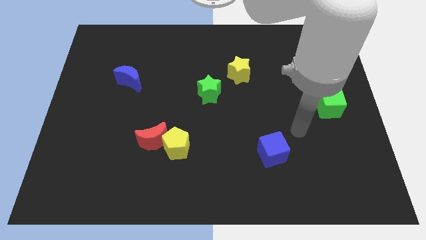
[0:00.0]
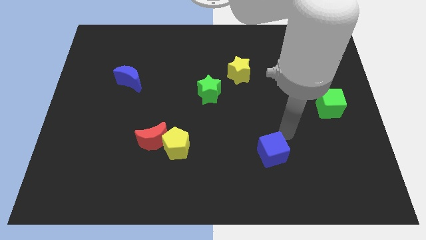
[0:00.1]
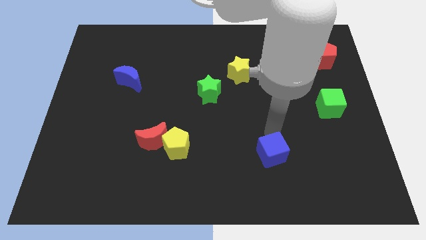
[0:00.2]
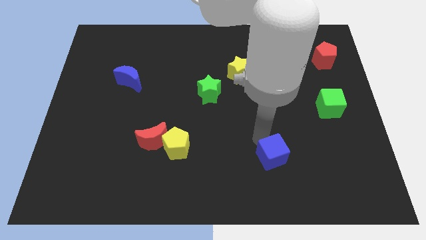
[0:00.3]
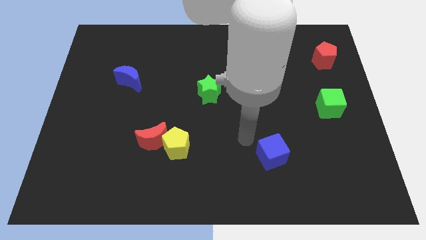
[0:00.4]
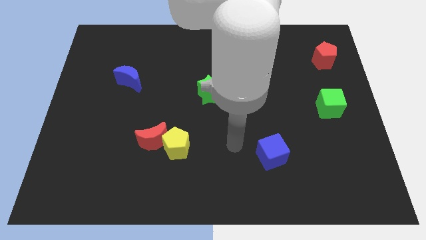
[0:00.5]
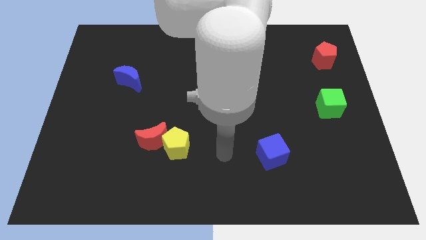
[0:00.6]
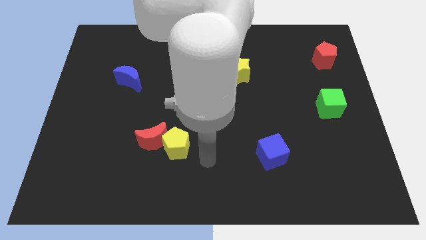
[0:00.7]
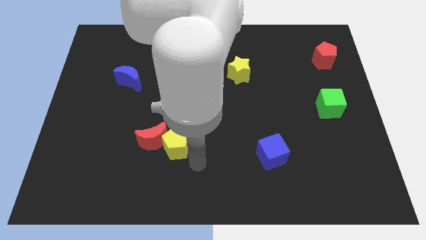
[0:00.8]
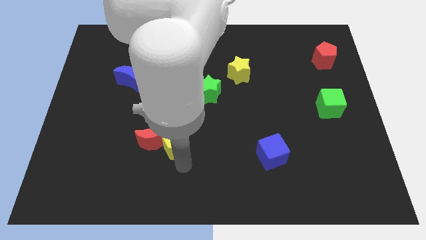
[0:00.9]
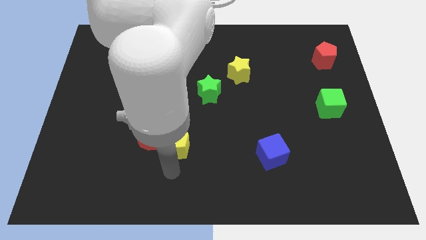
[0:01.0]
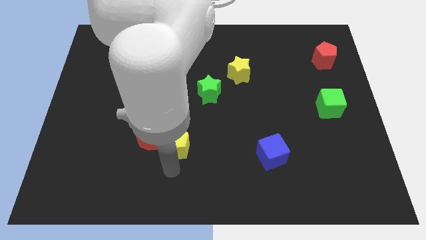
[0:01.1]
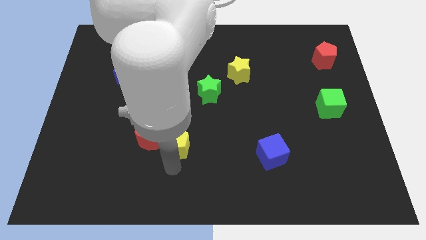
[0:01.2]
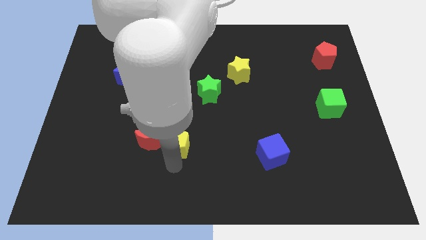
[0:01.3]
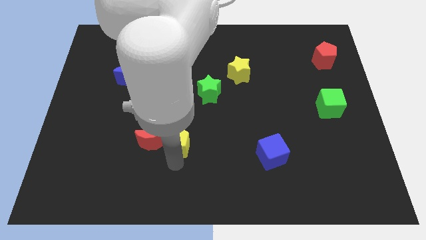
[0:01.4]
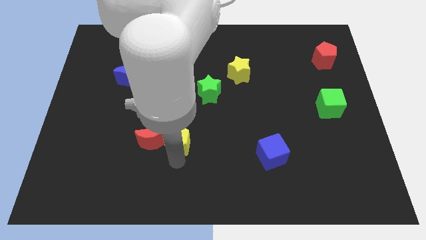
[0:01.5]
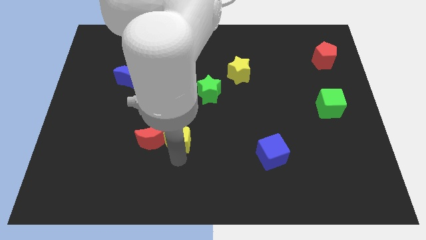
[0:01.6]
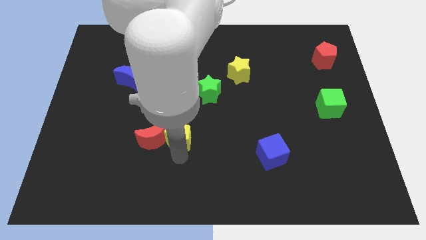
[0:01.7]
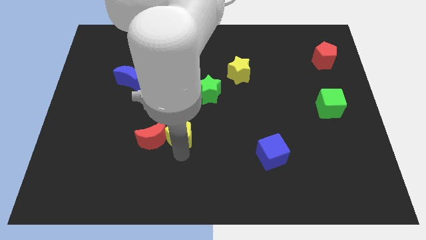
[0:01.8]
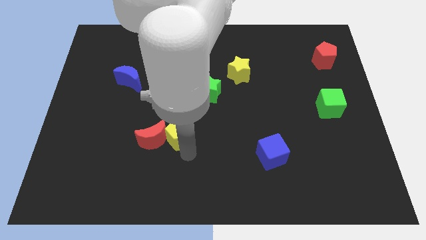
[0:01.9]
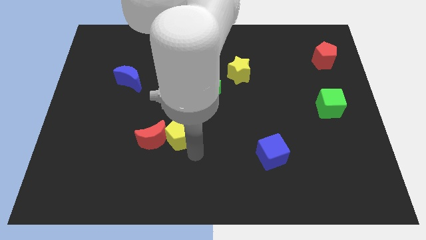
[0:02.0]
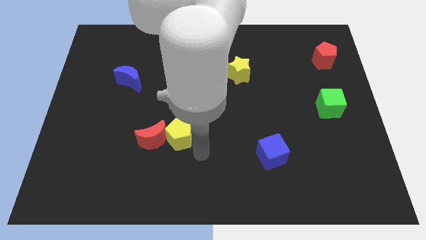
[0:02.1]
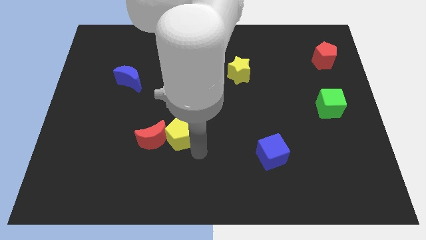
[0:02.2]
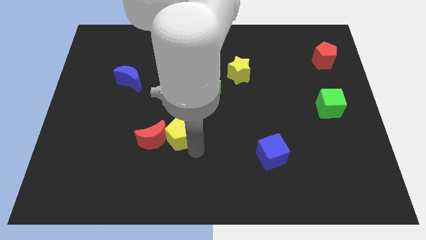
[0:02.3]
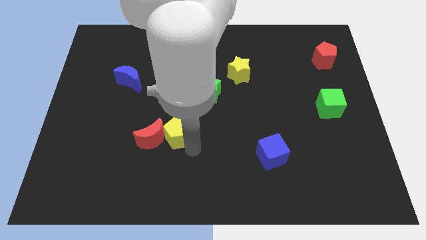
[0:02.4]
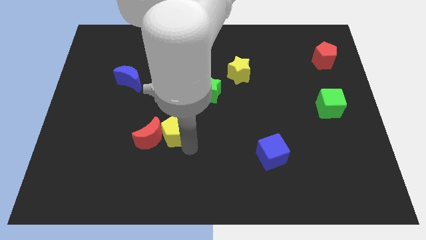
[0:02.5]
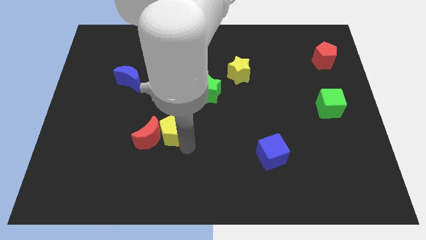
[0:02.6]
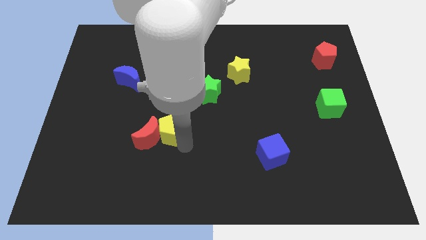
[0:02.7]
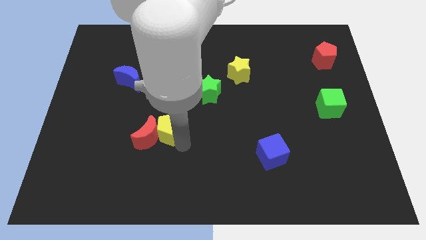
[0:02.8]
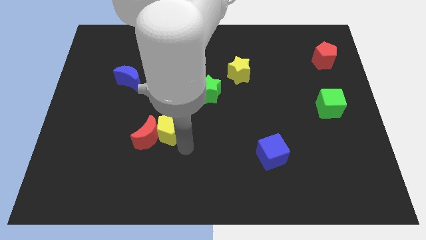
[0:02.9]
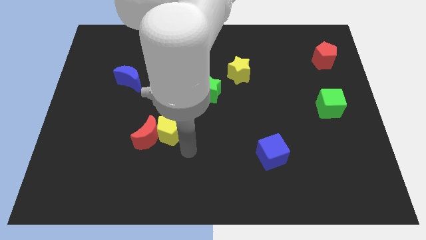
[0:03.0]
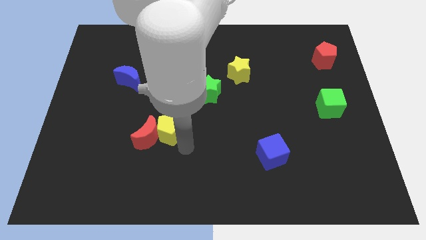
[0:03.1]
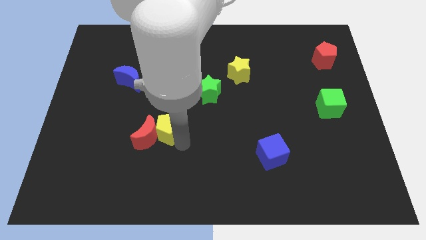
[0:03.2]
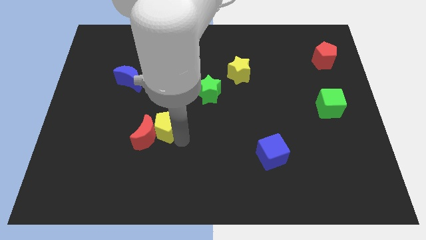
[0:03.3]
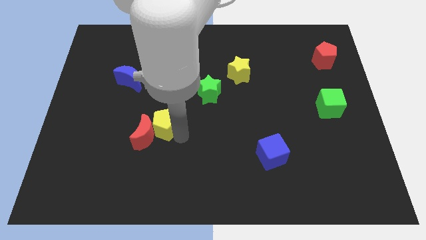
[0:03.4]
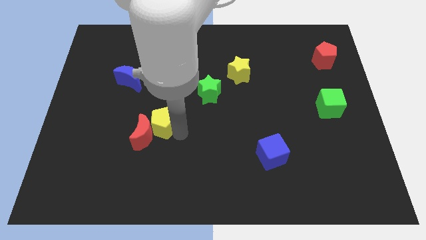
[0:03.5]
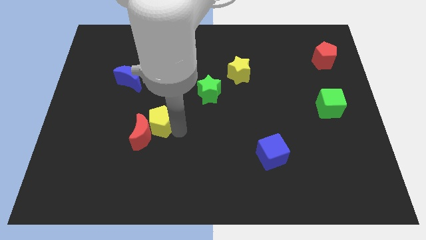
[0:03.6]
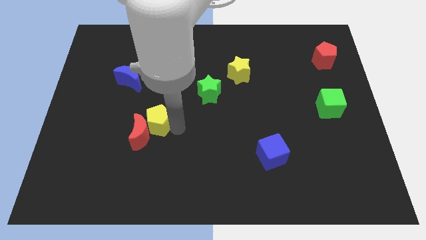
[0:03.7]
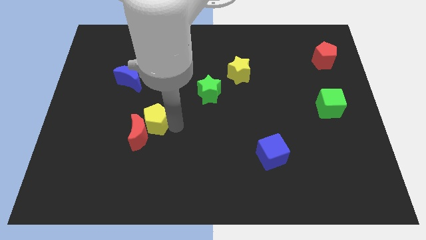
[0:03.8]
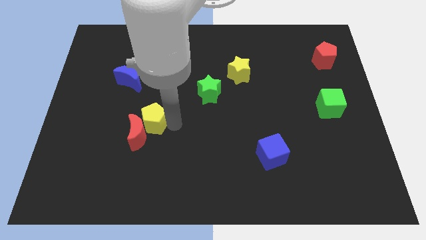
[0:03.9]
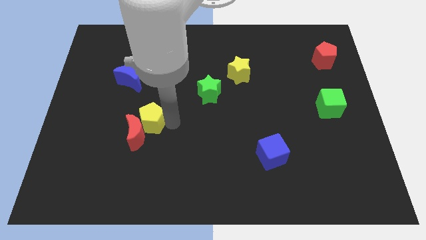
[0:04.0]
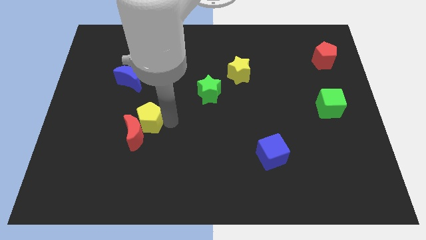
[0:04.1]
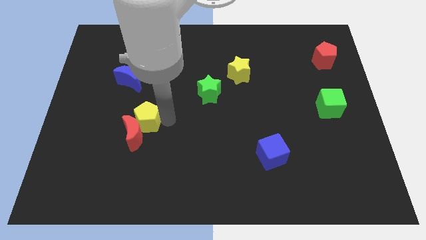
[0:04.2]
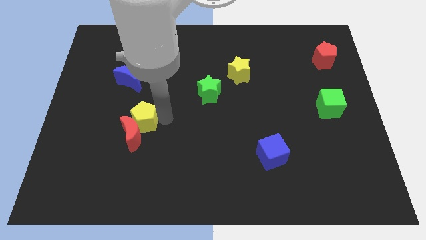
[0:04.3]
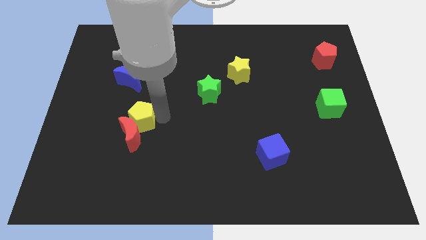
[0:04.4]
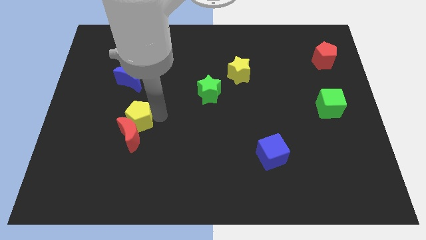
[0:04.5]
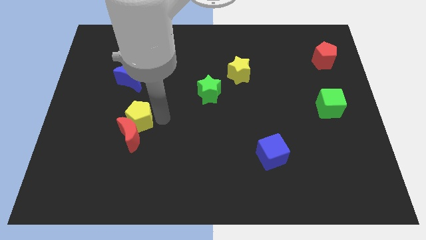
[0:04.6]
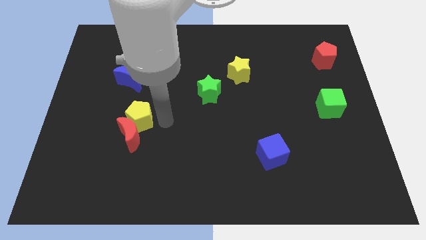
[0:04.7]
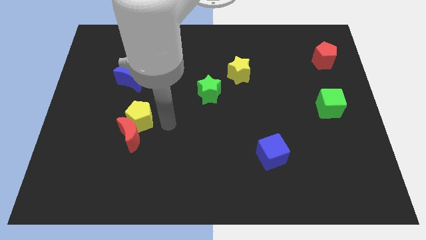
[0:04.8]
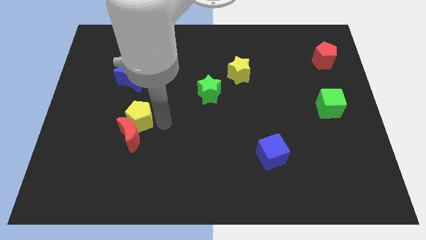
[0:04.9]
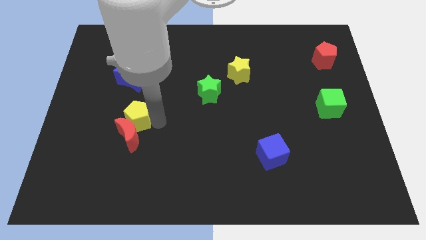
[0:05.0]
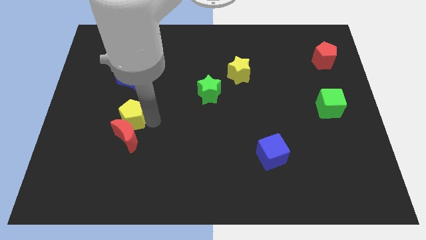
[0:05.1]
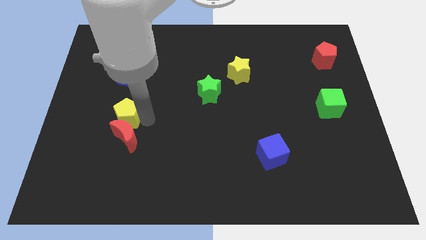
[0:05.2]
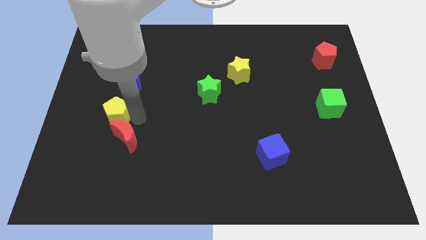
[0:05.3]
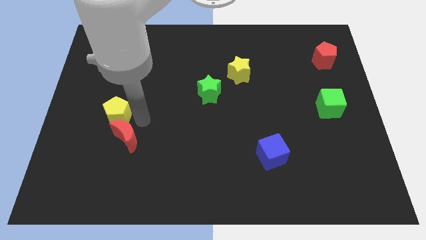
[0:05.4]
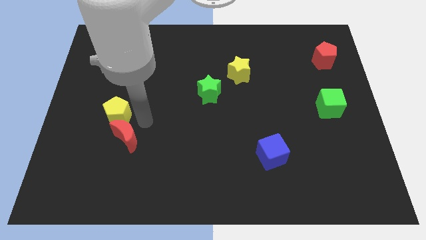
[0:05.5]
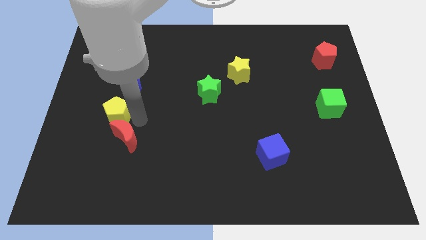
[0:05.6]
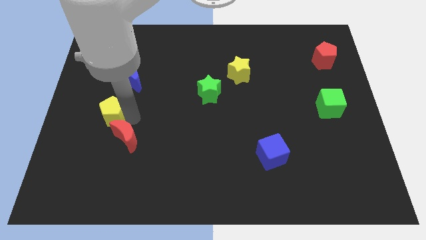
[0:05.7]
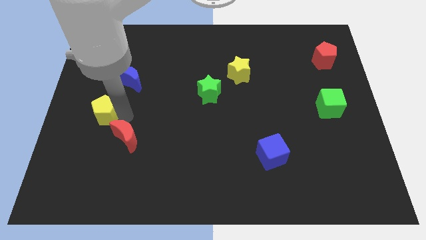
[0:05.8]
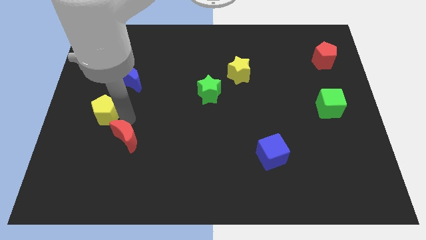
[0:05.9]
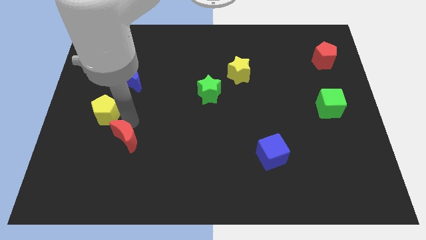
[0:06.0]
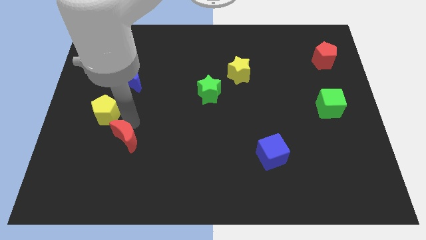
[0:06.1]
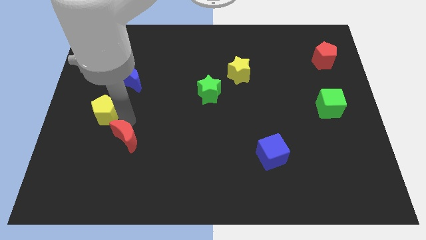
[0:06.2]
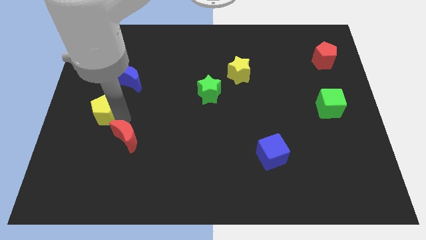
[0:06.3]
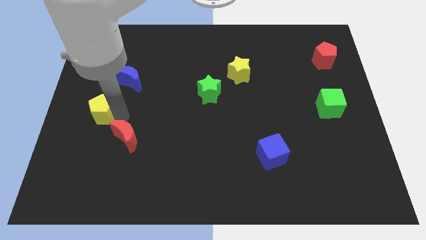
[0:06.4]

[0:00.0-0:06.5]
slide the yellow pentagon to the left side of the board
